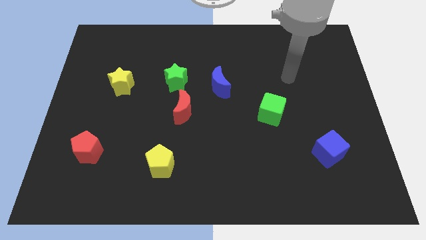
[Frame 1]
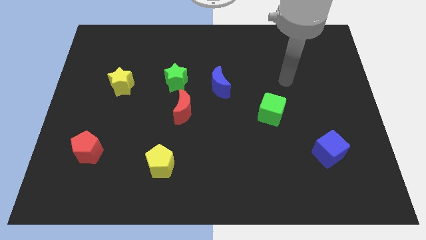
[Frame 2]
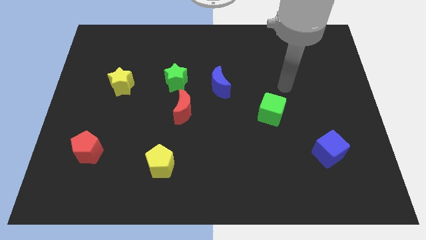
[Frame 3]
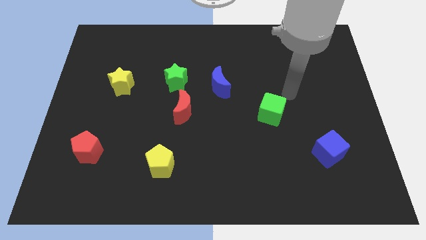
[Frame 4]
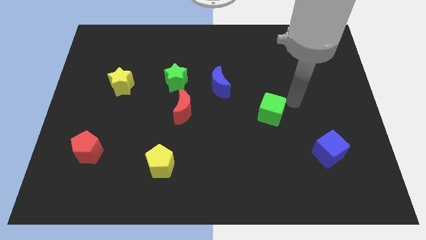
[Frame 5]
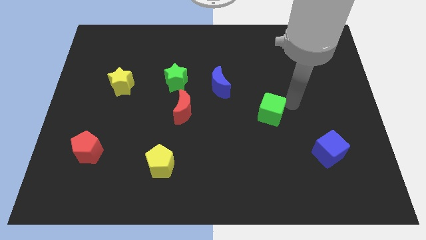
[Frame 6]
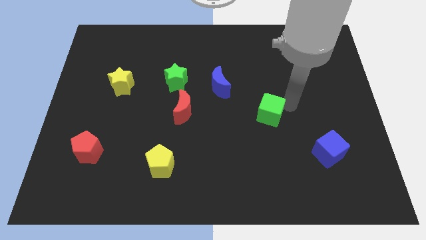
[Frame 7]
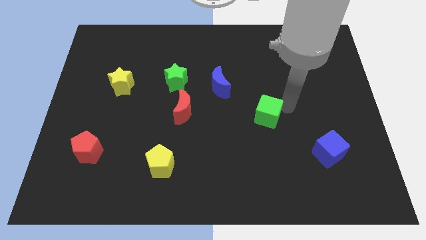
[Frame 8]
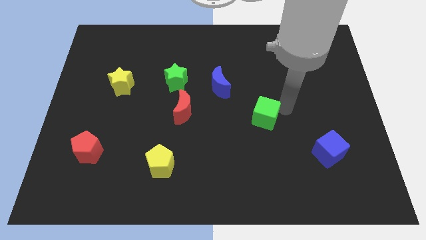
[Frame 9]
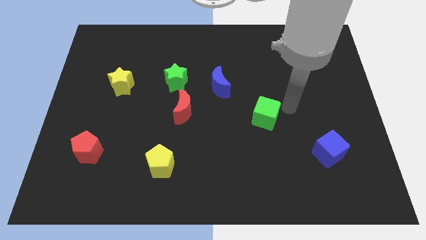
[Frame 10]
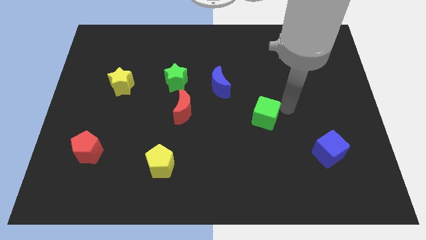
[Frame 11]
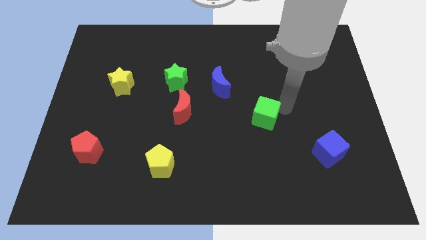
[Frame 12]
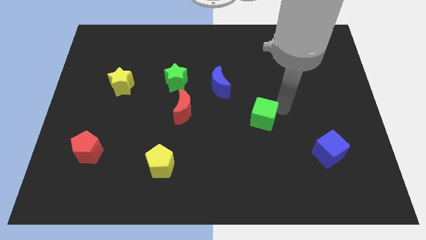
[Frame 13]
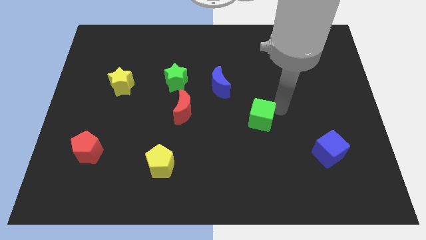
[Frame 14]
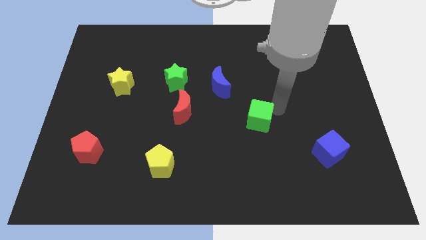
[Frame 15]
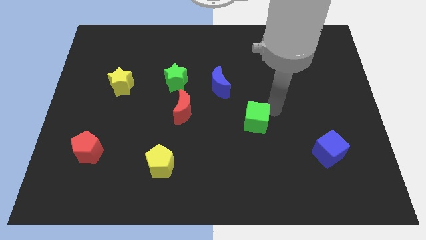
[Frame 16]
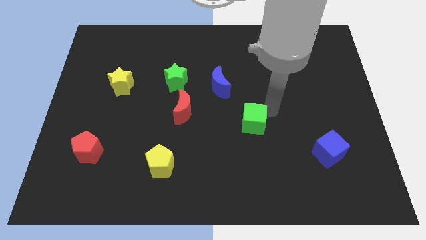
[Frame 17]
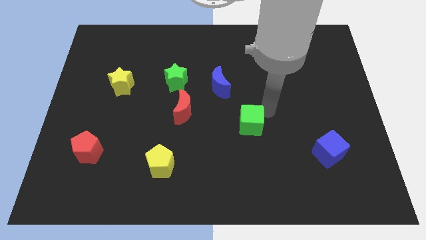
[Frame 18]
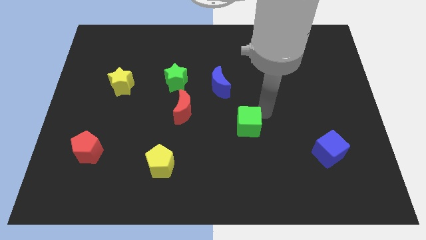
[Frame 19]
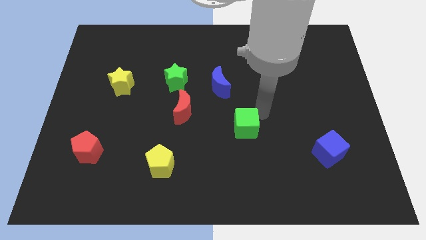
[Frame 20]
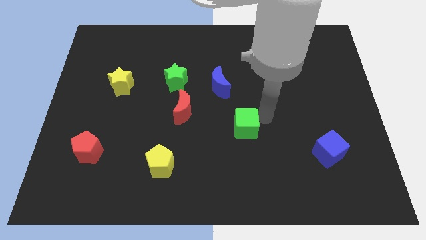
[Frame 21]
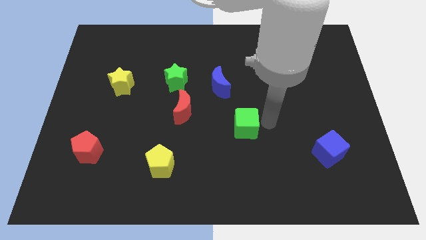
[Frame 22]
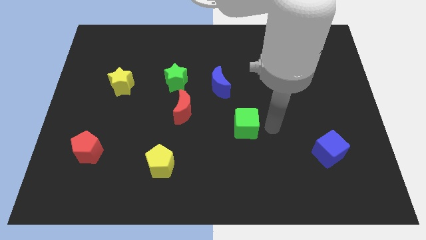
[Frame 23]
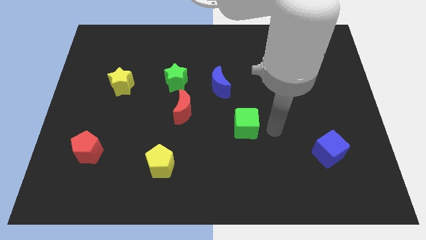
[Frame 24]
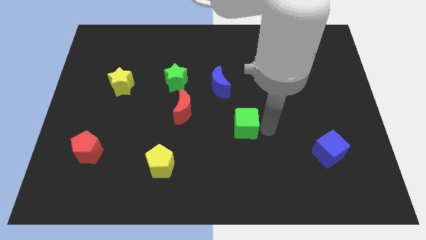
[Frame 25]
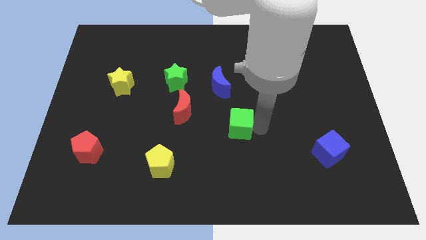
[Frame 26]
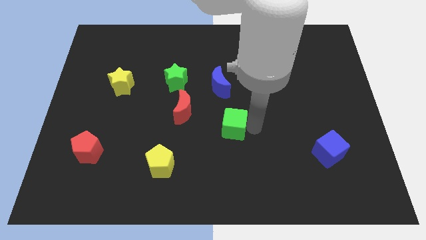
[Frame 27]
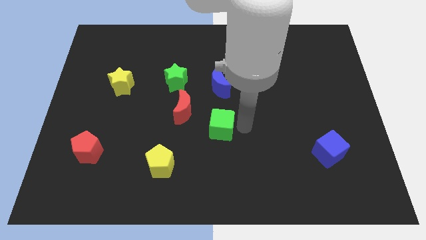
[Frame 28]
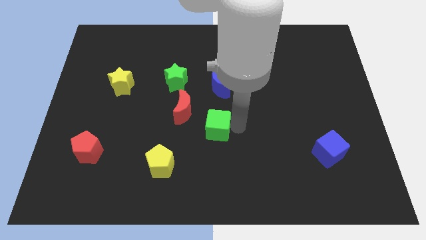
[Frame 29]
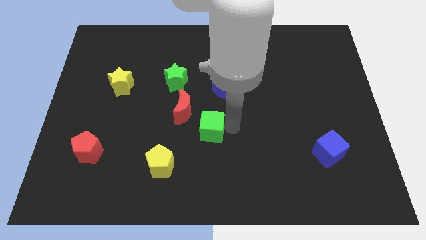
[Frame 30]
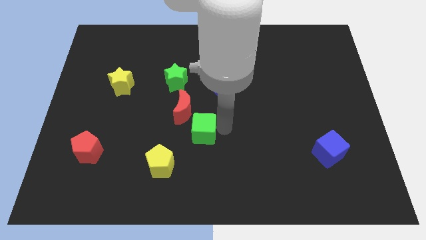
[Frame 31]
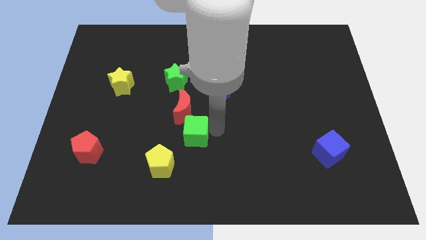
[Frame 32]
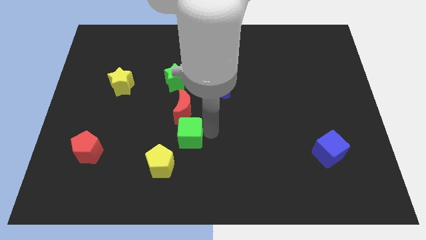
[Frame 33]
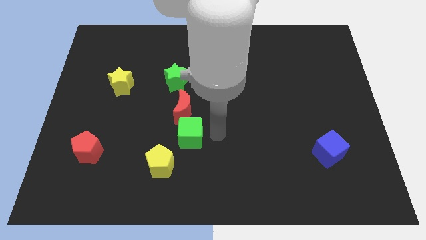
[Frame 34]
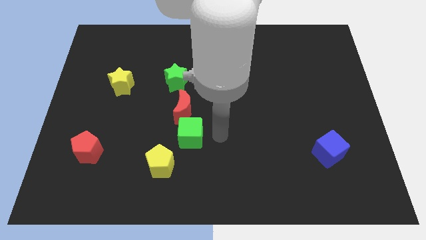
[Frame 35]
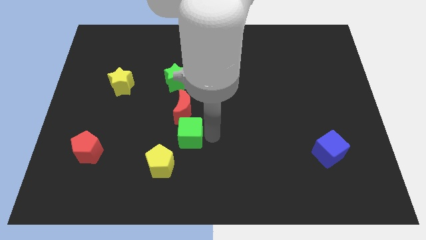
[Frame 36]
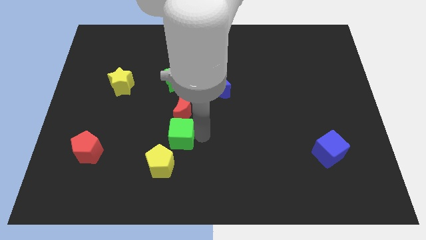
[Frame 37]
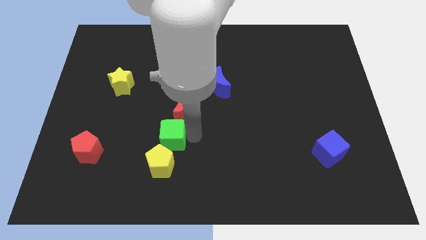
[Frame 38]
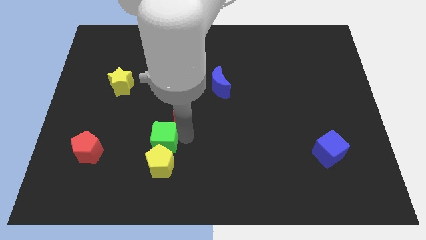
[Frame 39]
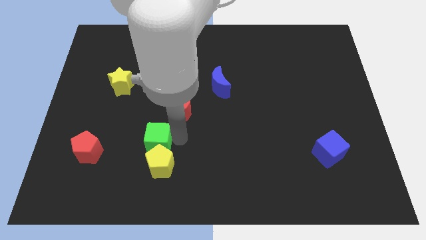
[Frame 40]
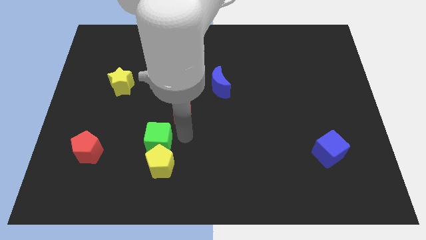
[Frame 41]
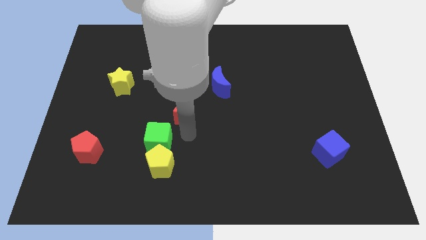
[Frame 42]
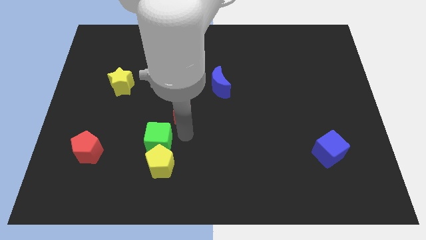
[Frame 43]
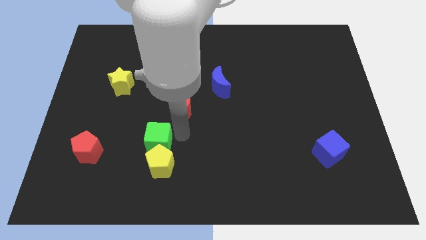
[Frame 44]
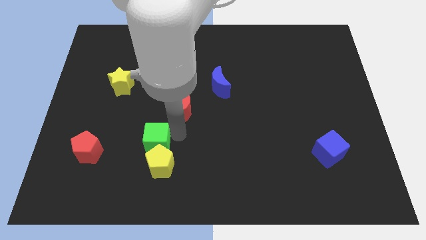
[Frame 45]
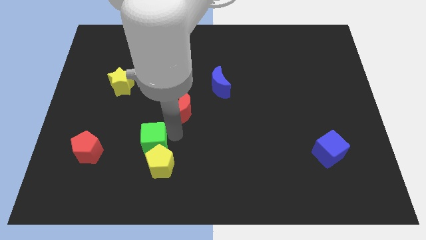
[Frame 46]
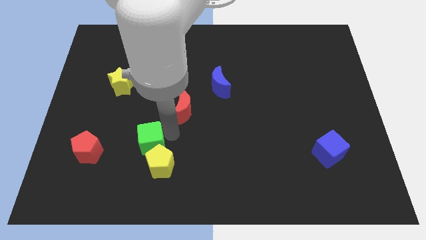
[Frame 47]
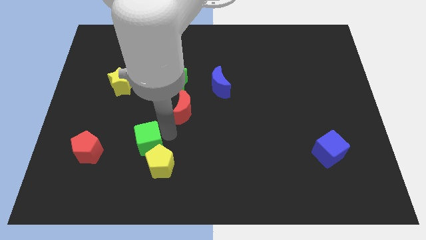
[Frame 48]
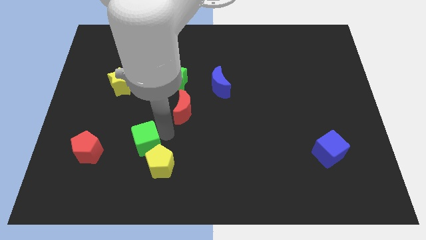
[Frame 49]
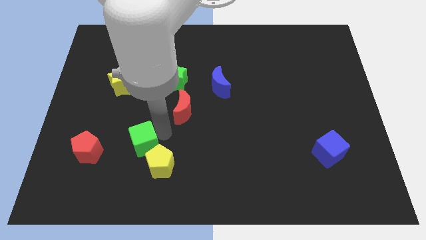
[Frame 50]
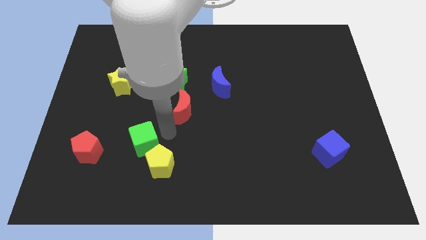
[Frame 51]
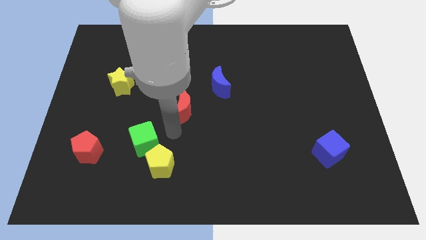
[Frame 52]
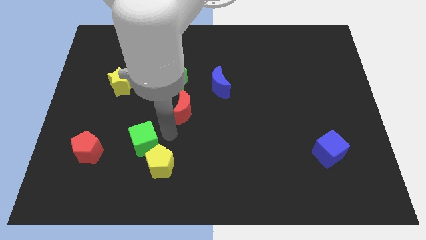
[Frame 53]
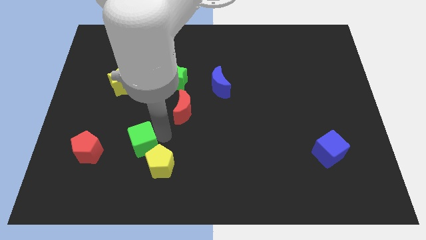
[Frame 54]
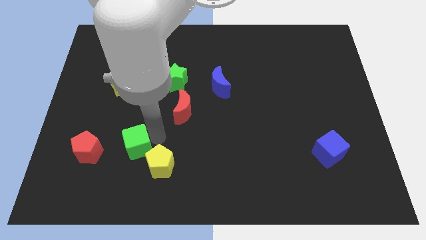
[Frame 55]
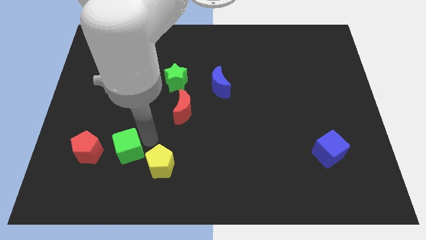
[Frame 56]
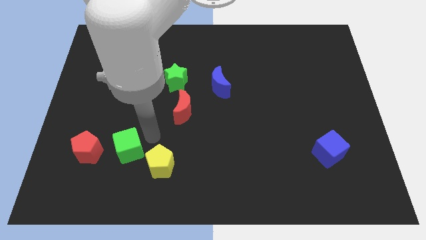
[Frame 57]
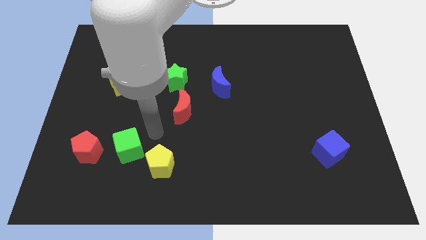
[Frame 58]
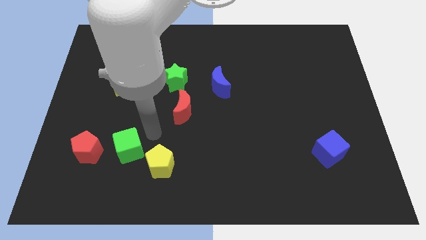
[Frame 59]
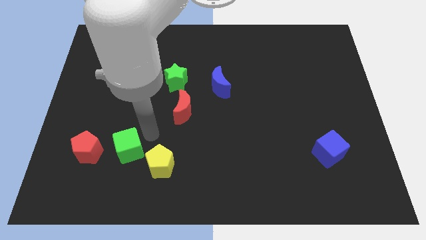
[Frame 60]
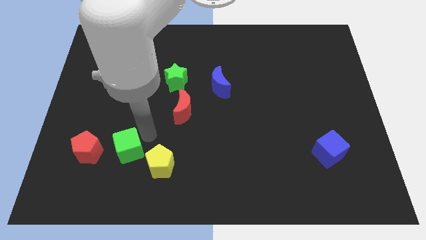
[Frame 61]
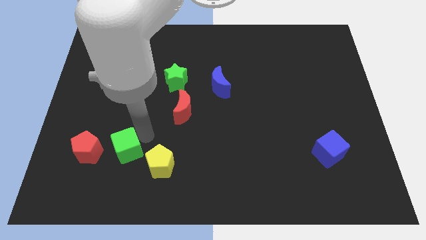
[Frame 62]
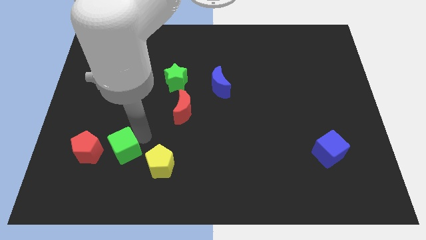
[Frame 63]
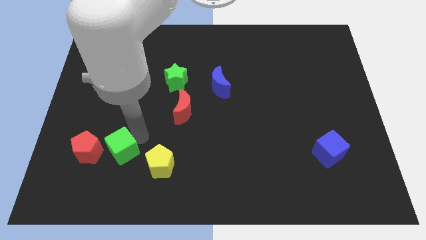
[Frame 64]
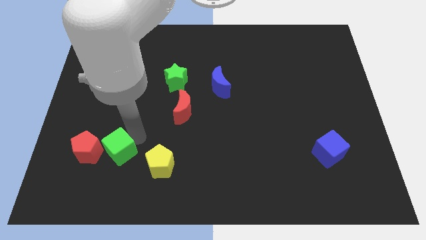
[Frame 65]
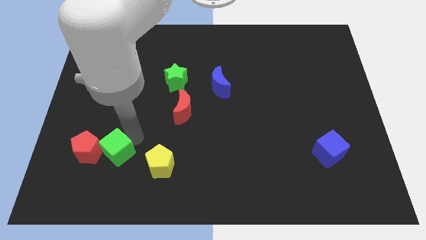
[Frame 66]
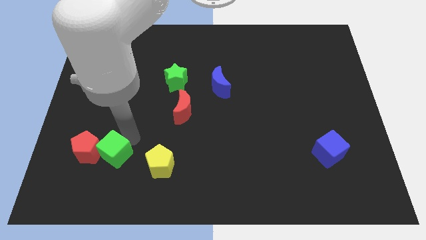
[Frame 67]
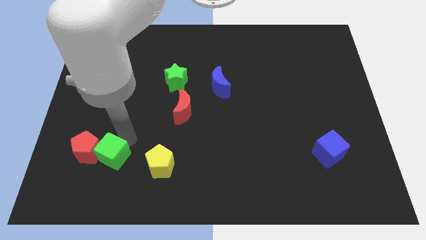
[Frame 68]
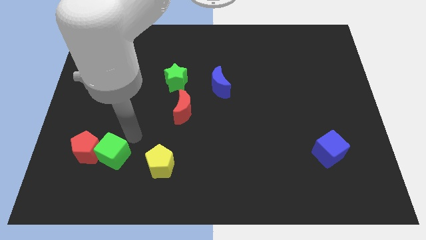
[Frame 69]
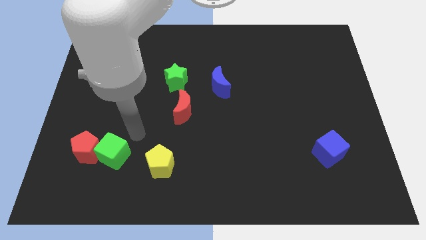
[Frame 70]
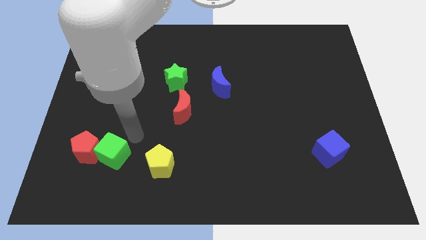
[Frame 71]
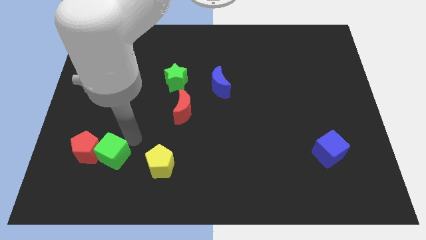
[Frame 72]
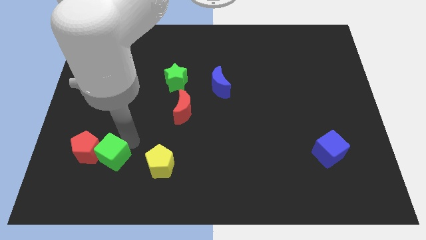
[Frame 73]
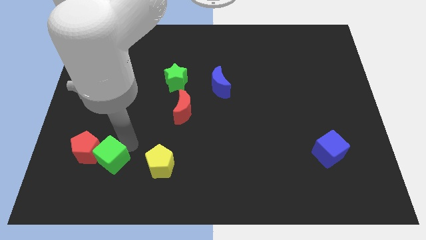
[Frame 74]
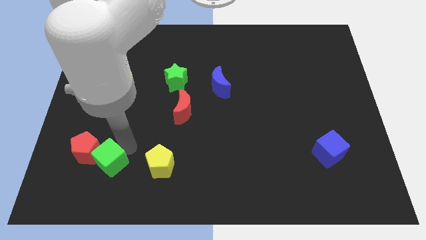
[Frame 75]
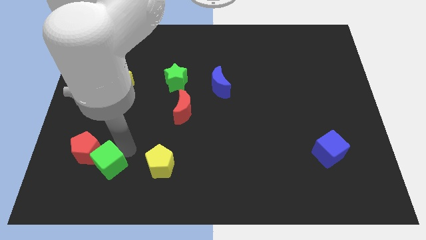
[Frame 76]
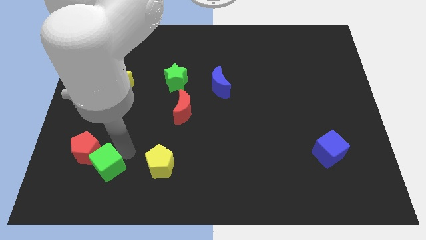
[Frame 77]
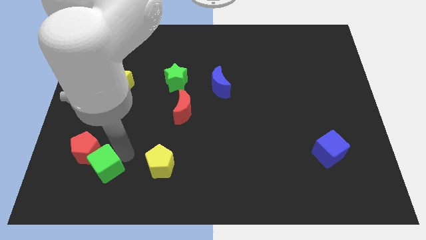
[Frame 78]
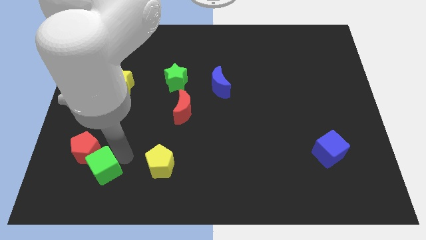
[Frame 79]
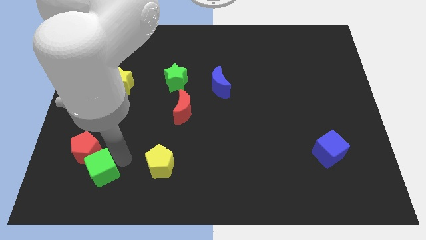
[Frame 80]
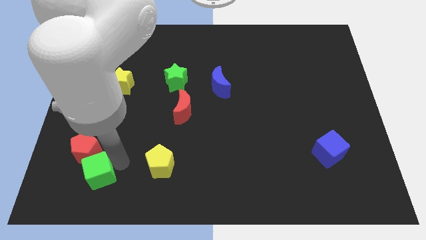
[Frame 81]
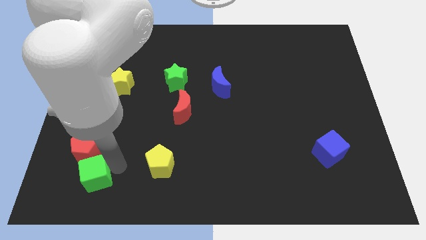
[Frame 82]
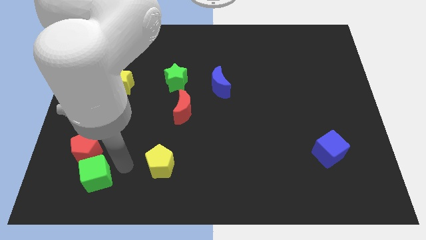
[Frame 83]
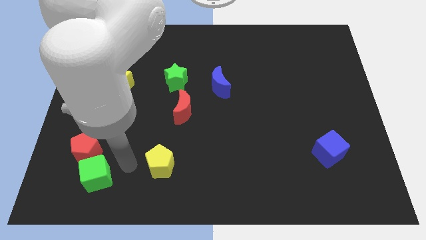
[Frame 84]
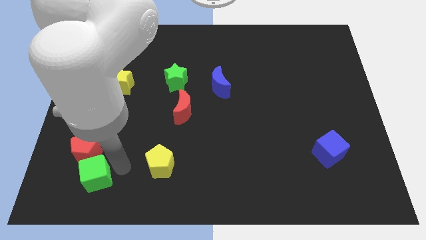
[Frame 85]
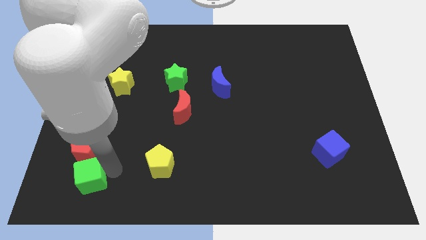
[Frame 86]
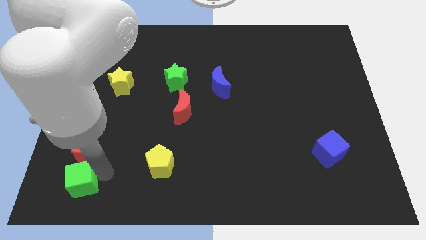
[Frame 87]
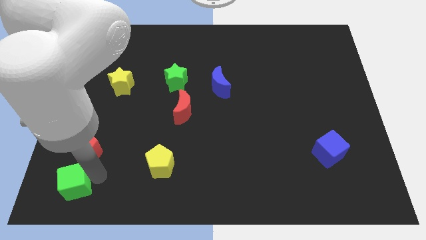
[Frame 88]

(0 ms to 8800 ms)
put the green cube to the bottom left of the board
